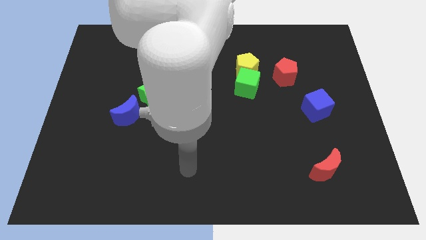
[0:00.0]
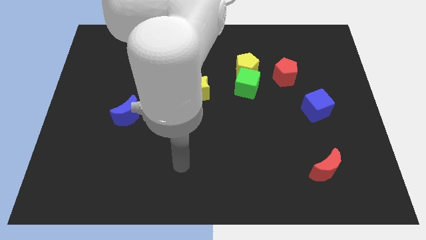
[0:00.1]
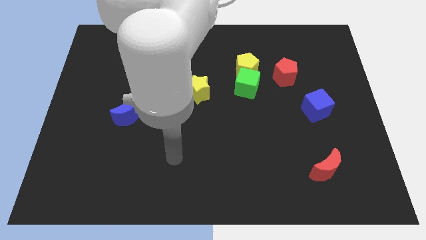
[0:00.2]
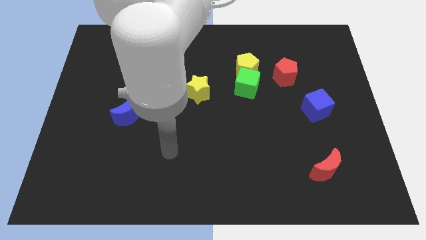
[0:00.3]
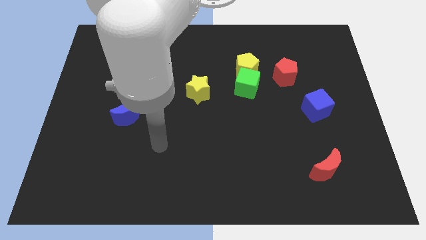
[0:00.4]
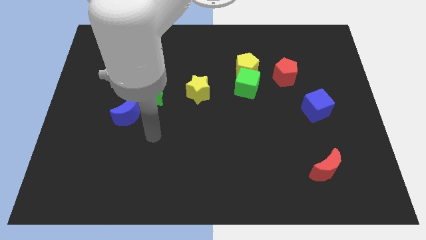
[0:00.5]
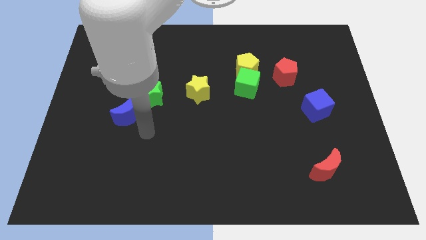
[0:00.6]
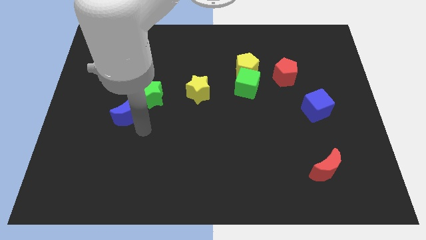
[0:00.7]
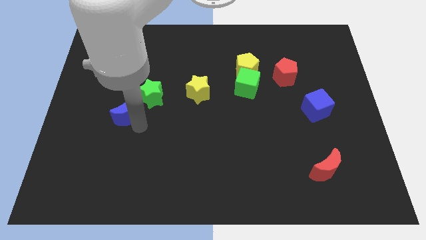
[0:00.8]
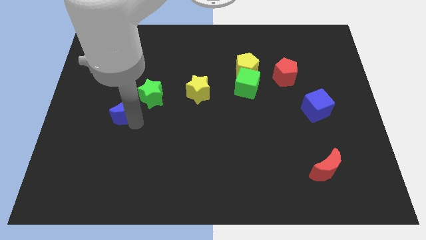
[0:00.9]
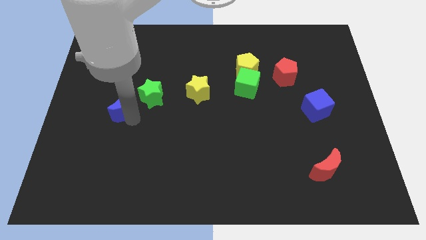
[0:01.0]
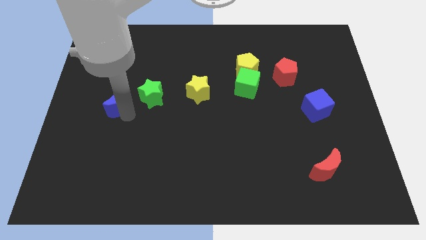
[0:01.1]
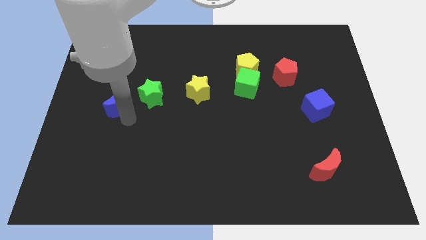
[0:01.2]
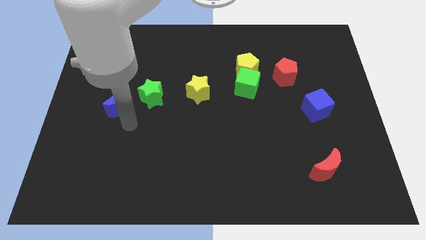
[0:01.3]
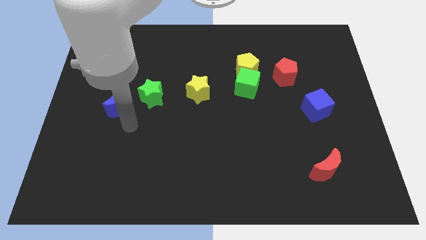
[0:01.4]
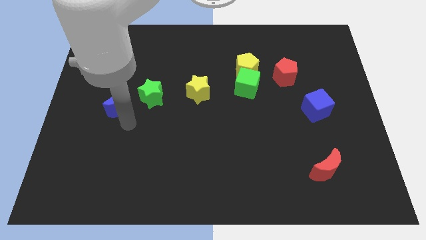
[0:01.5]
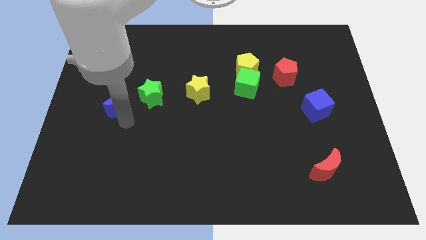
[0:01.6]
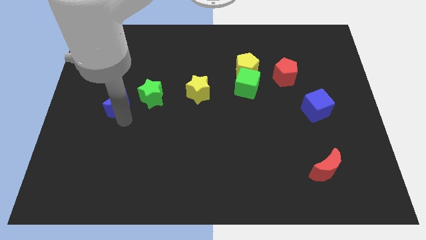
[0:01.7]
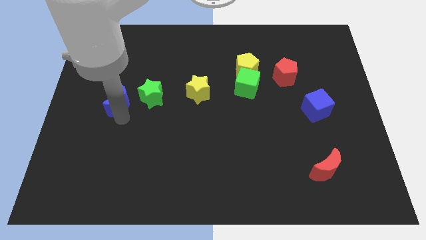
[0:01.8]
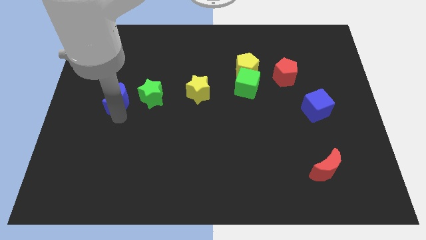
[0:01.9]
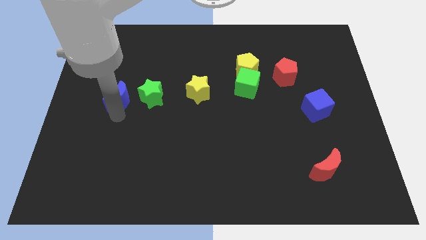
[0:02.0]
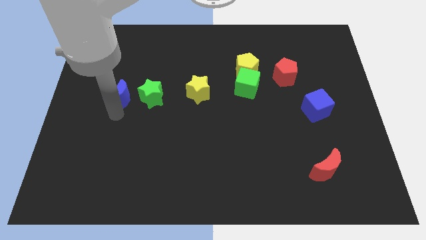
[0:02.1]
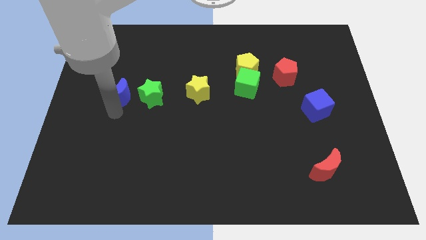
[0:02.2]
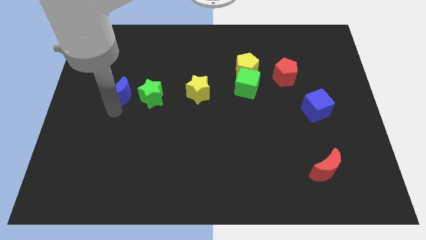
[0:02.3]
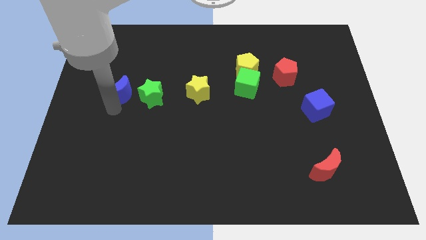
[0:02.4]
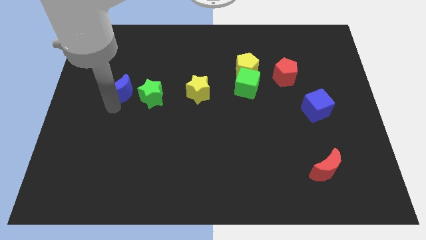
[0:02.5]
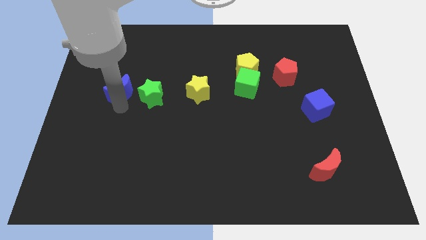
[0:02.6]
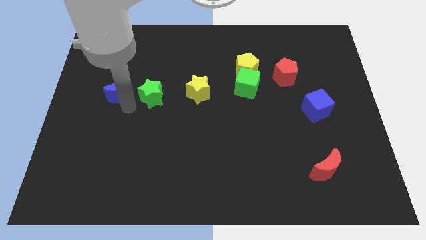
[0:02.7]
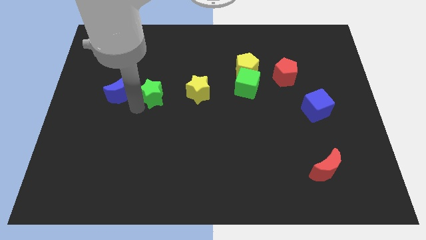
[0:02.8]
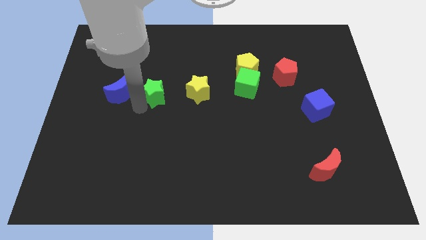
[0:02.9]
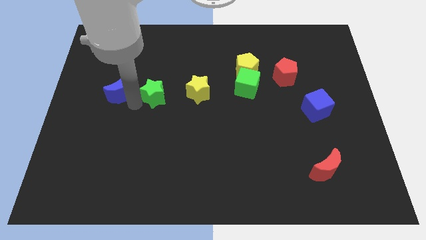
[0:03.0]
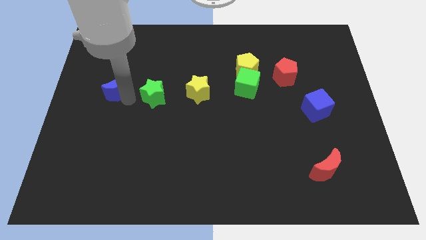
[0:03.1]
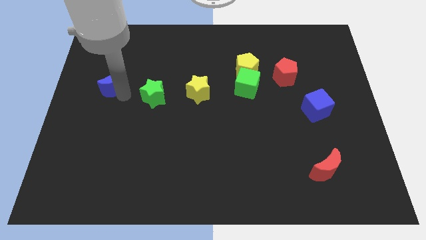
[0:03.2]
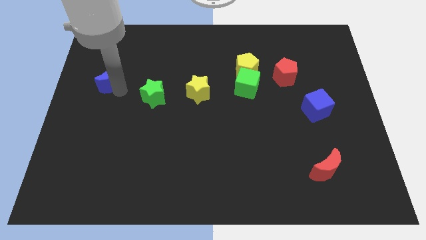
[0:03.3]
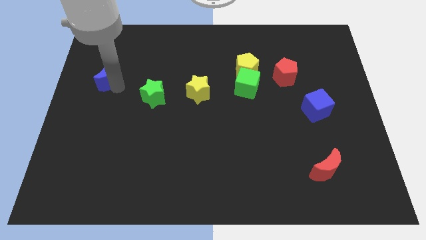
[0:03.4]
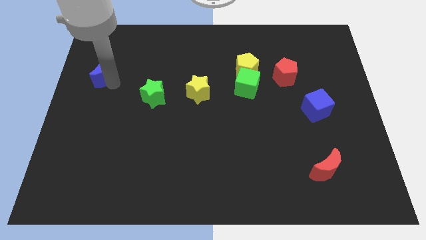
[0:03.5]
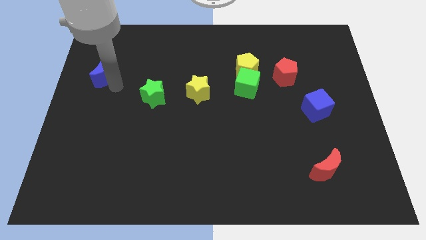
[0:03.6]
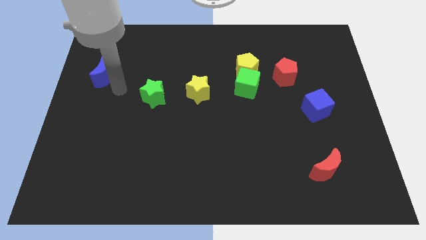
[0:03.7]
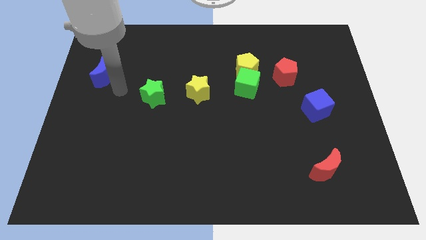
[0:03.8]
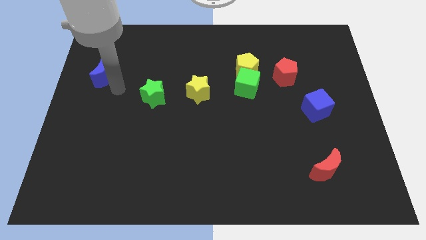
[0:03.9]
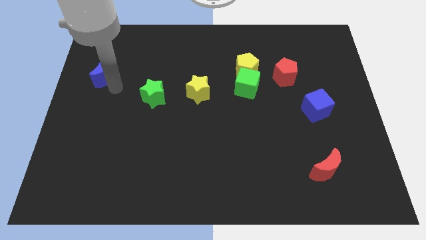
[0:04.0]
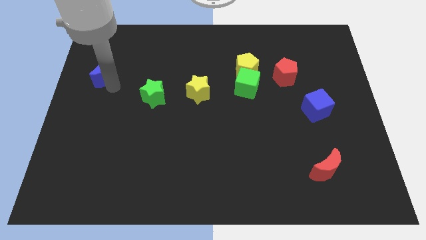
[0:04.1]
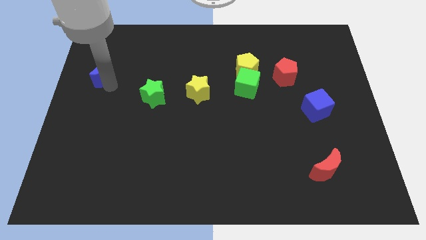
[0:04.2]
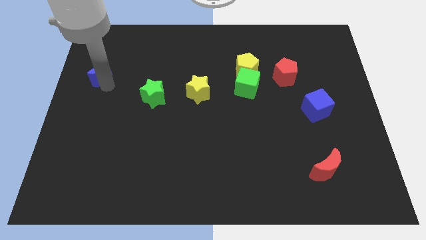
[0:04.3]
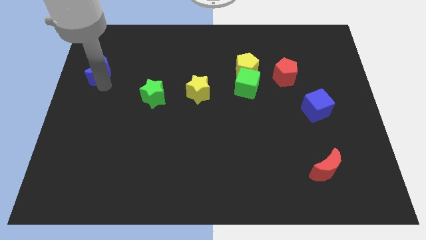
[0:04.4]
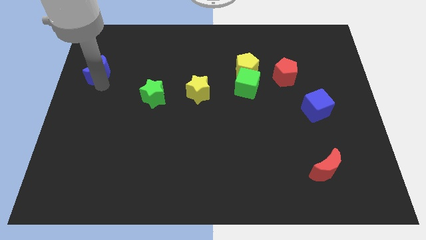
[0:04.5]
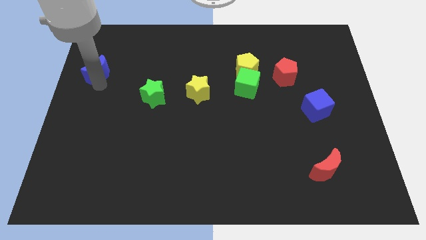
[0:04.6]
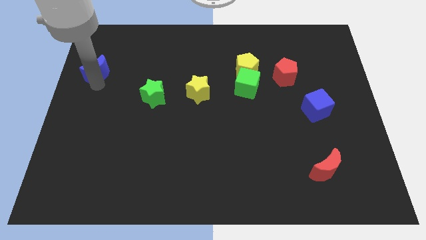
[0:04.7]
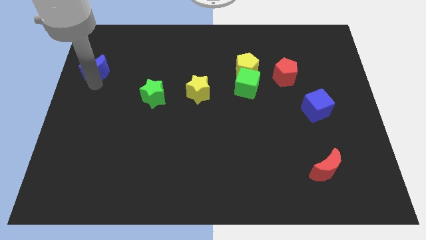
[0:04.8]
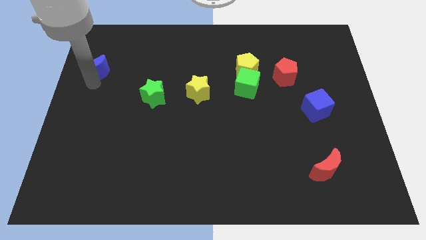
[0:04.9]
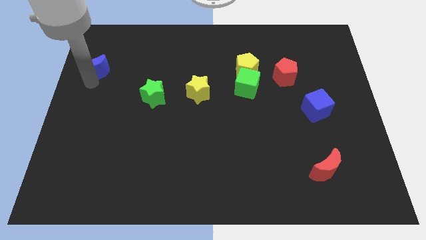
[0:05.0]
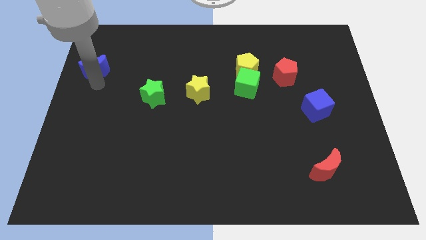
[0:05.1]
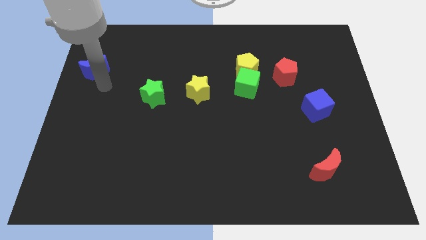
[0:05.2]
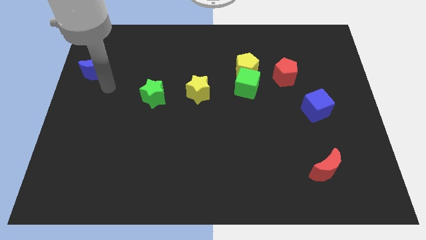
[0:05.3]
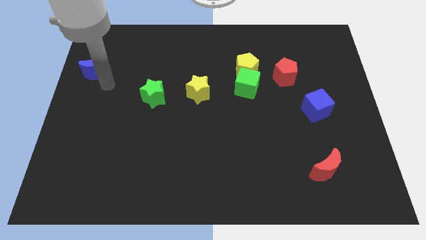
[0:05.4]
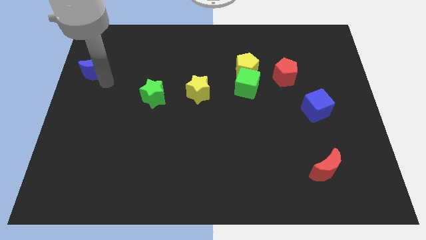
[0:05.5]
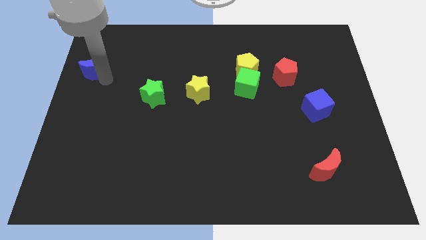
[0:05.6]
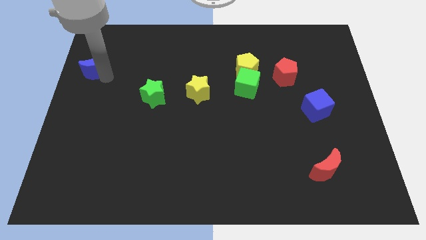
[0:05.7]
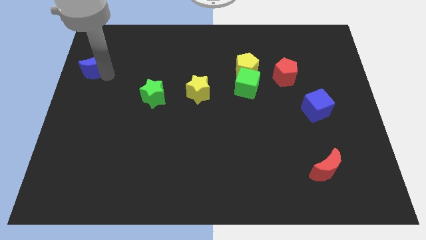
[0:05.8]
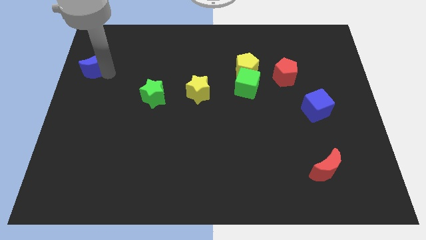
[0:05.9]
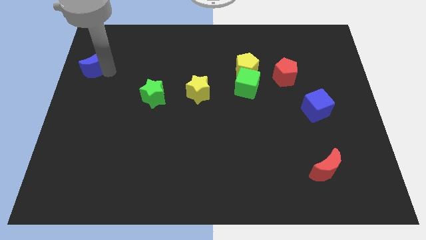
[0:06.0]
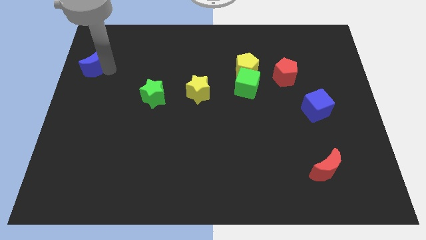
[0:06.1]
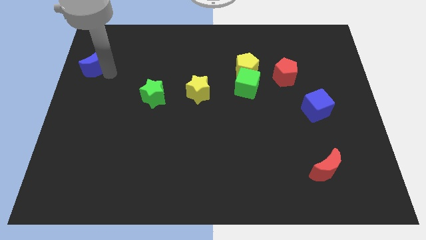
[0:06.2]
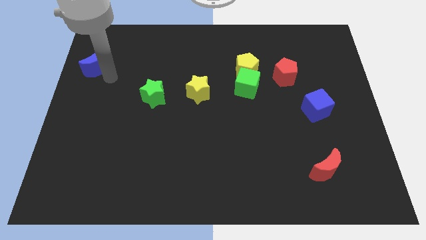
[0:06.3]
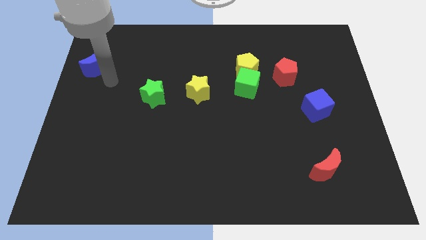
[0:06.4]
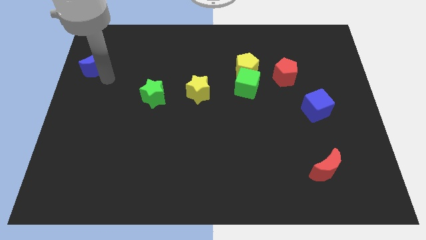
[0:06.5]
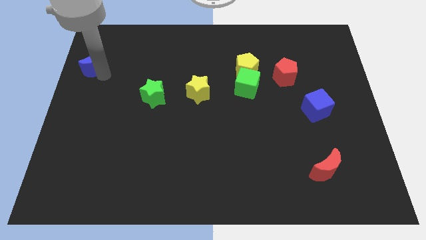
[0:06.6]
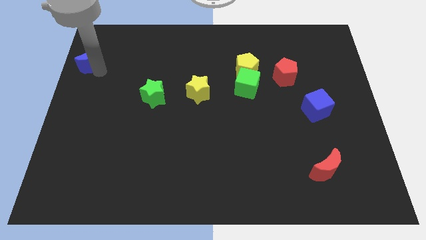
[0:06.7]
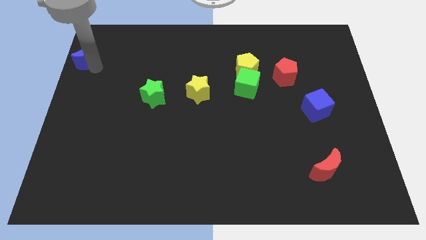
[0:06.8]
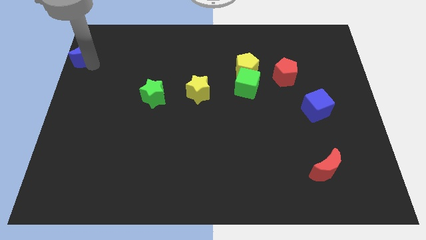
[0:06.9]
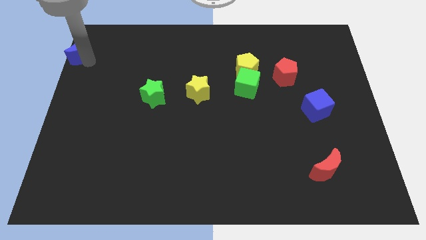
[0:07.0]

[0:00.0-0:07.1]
move the blue moon to the top left of the board
